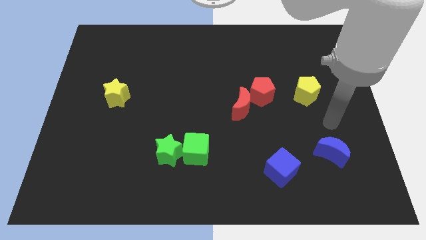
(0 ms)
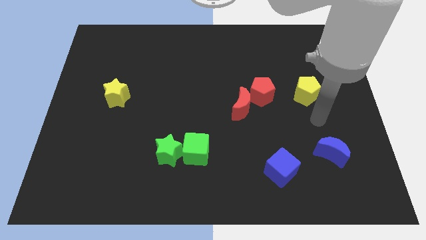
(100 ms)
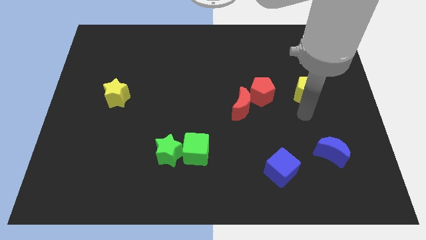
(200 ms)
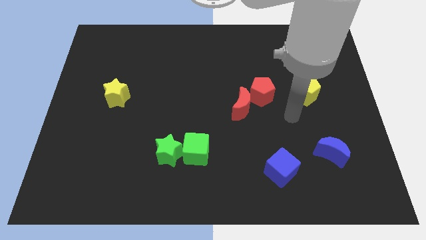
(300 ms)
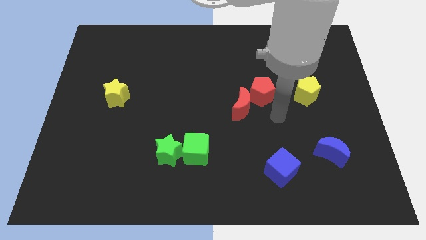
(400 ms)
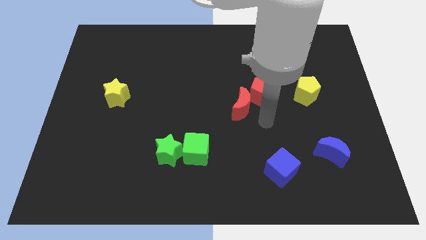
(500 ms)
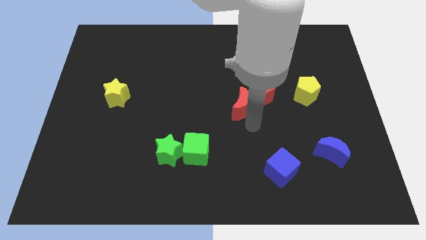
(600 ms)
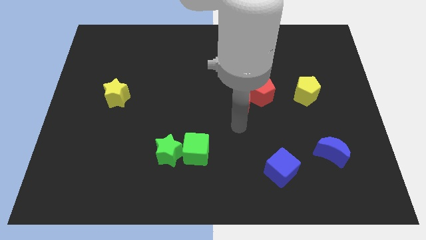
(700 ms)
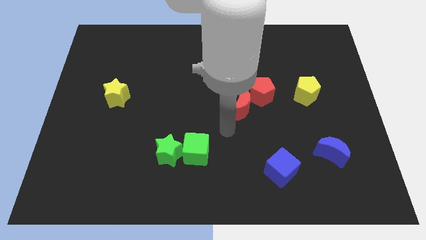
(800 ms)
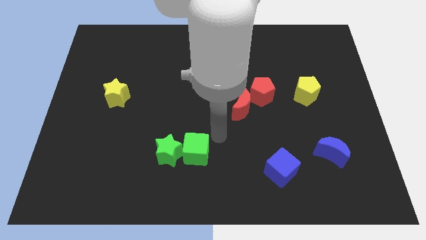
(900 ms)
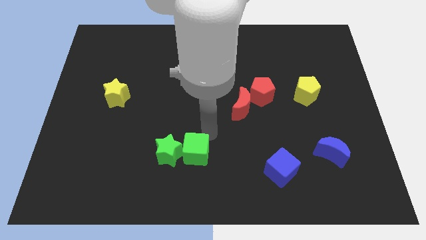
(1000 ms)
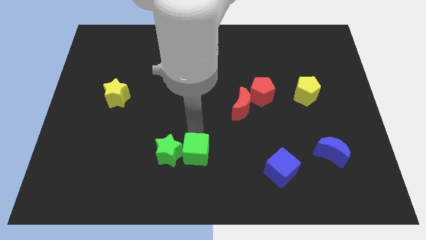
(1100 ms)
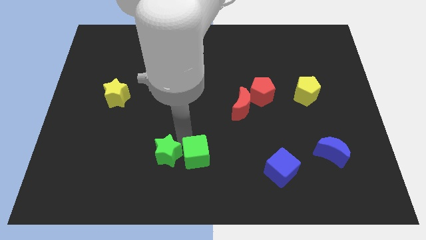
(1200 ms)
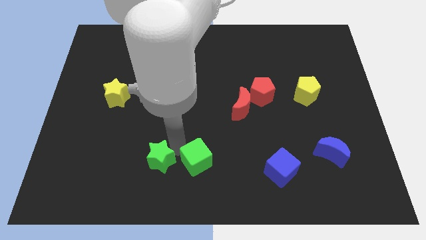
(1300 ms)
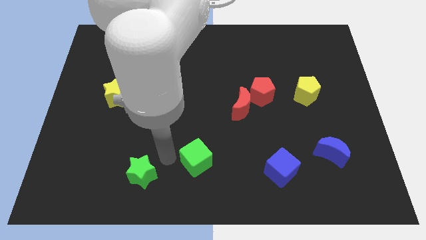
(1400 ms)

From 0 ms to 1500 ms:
pull the green cube apart from the green star

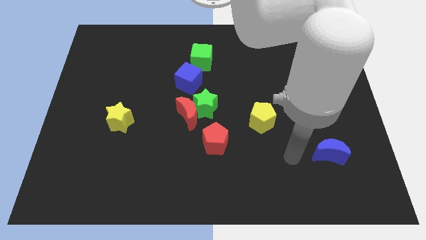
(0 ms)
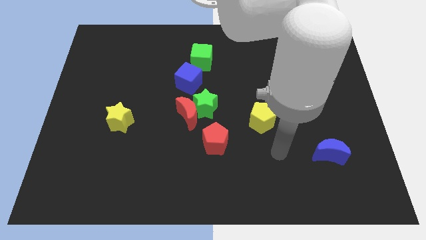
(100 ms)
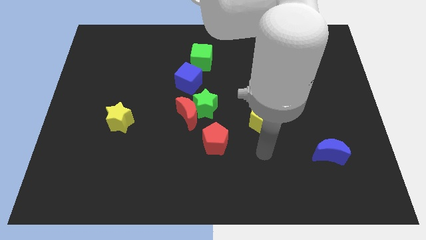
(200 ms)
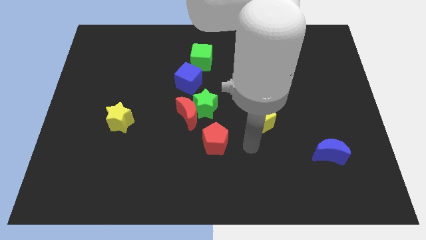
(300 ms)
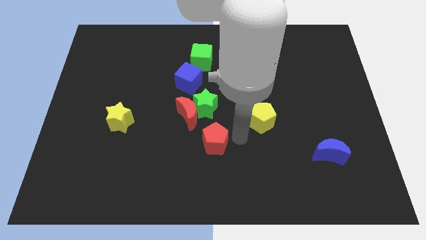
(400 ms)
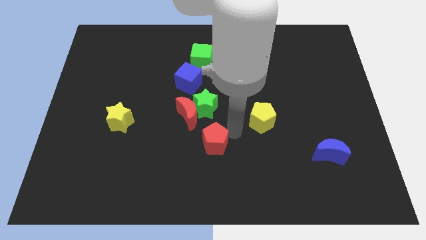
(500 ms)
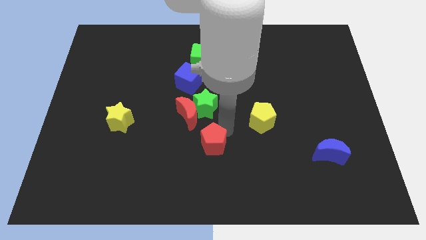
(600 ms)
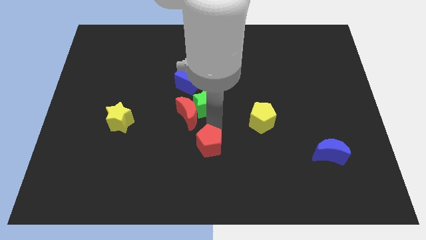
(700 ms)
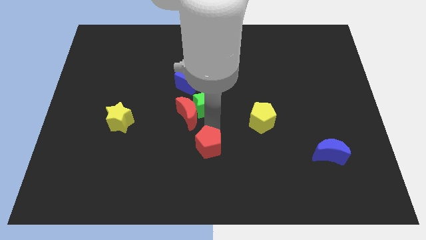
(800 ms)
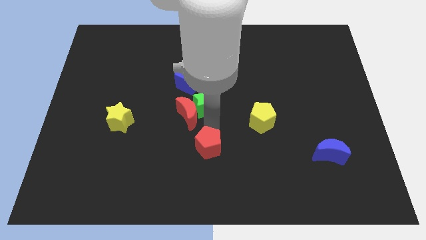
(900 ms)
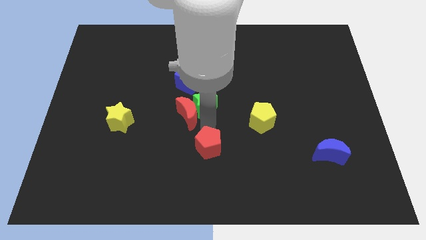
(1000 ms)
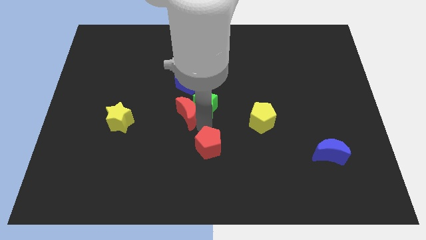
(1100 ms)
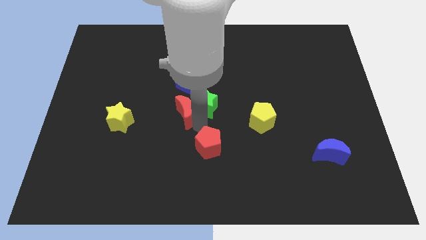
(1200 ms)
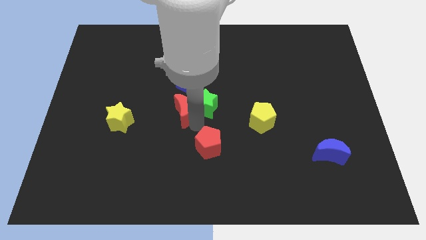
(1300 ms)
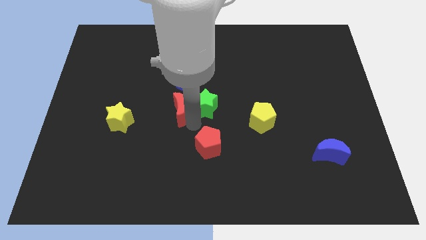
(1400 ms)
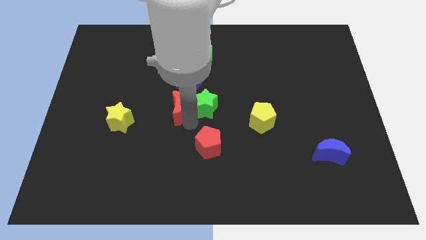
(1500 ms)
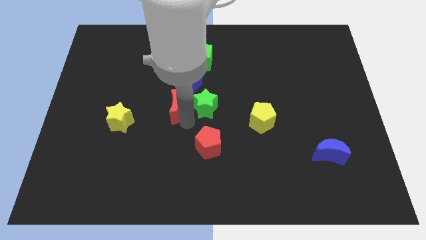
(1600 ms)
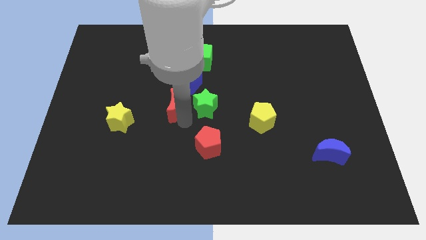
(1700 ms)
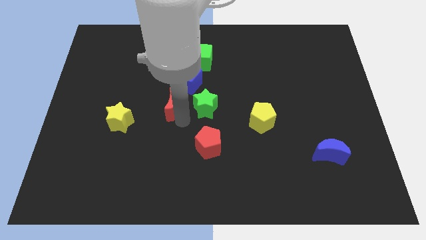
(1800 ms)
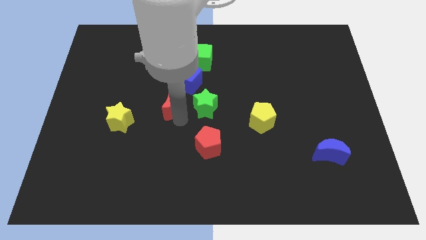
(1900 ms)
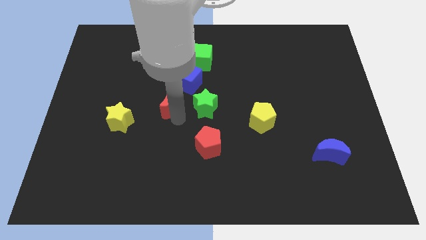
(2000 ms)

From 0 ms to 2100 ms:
separate the red moon from the green star and red pentagon

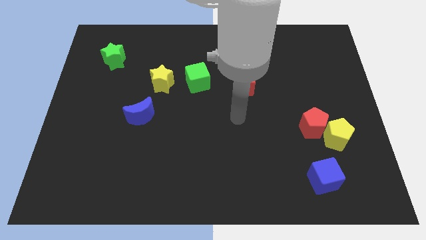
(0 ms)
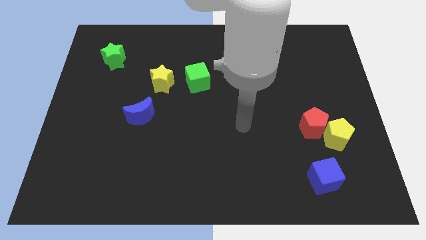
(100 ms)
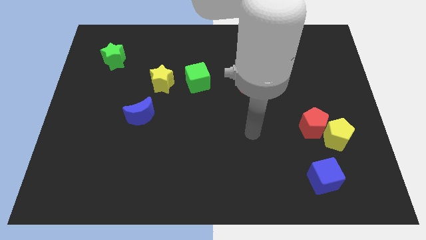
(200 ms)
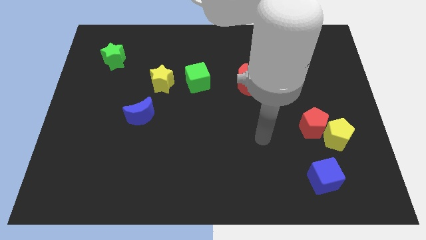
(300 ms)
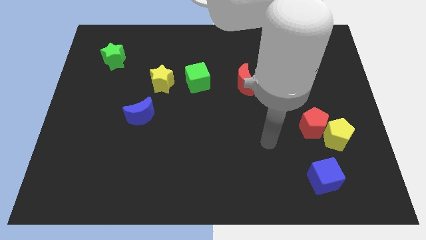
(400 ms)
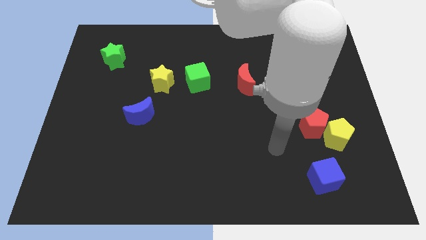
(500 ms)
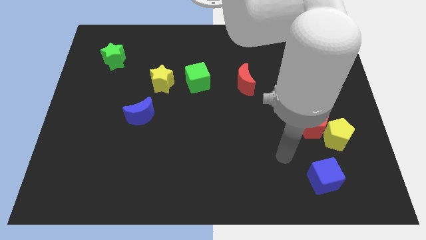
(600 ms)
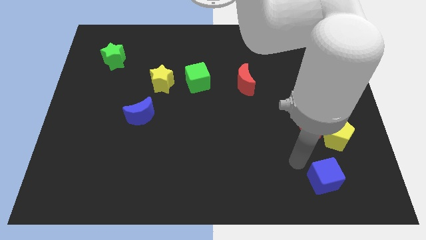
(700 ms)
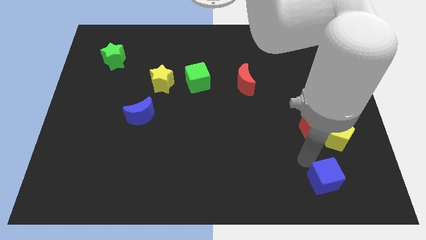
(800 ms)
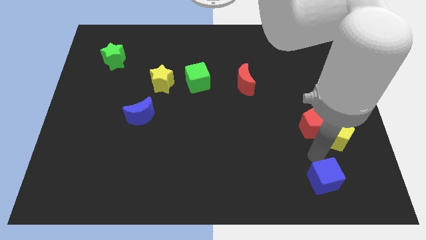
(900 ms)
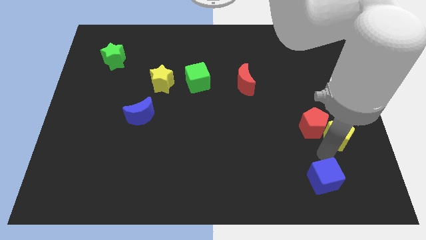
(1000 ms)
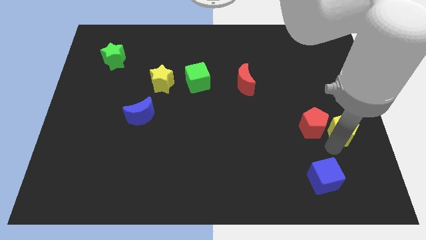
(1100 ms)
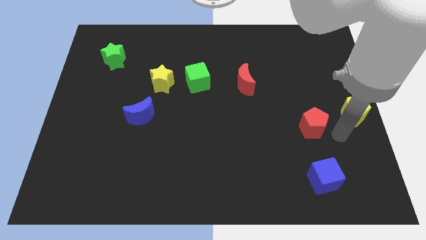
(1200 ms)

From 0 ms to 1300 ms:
pull the red pentagon apart from the yellow pentagon

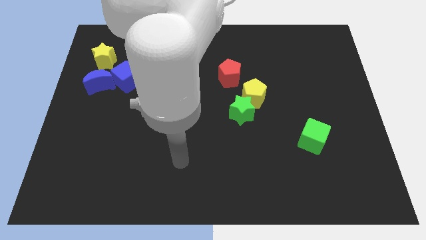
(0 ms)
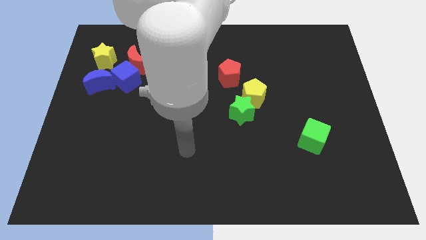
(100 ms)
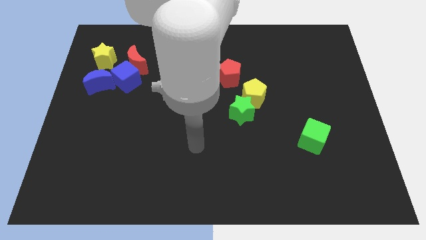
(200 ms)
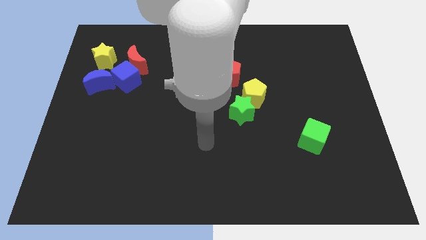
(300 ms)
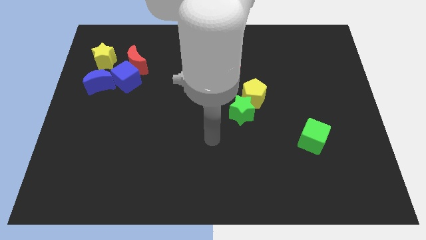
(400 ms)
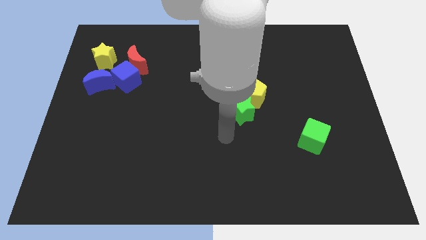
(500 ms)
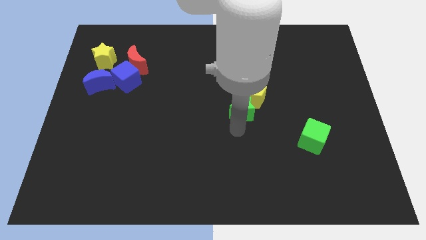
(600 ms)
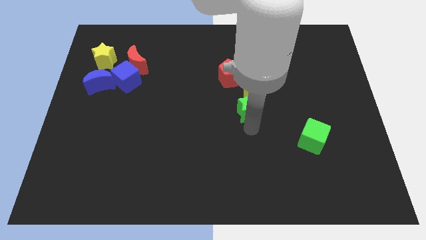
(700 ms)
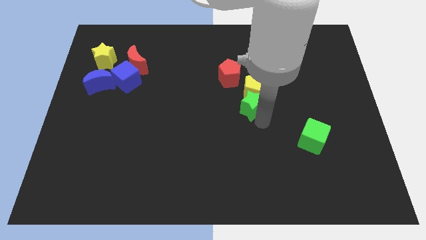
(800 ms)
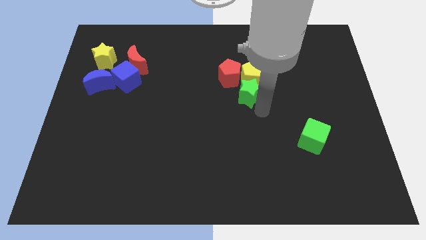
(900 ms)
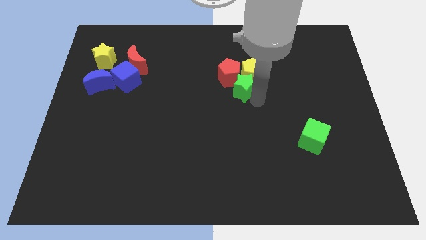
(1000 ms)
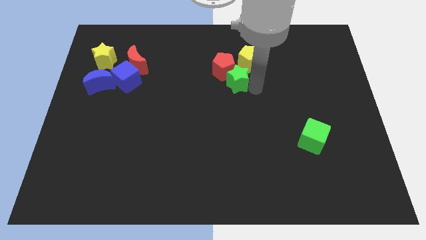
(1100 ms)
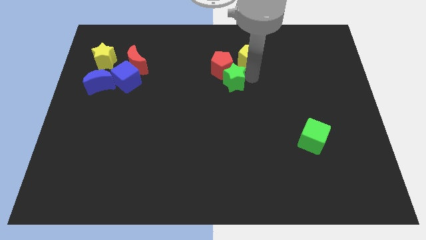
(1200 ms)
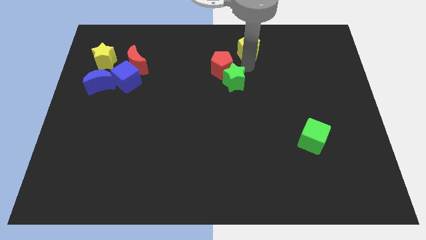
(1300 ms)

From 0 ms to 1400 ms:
move the green star away from the yellow pentagon

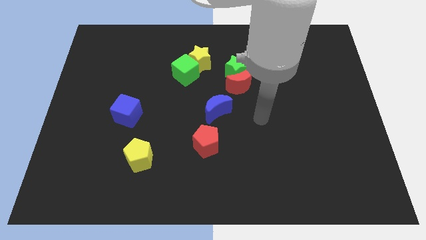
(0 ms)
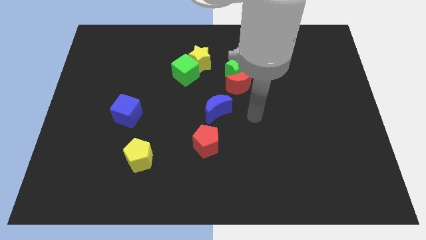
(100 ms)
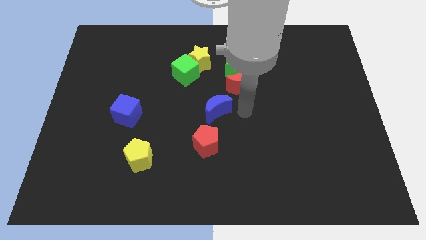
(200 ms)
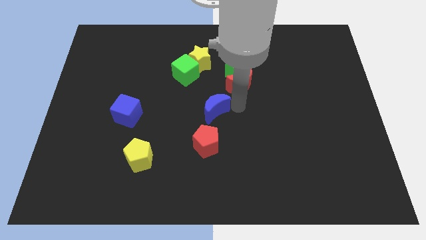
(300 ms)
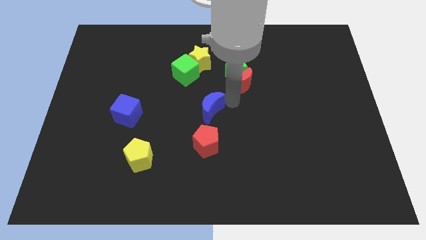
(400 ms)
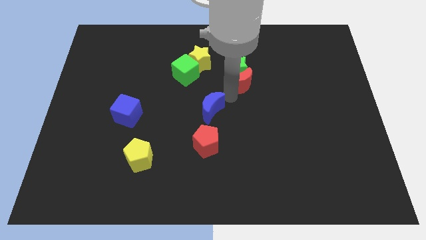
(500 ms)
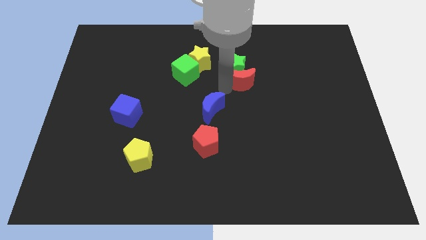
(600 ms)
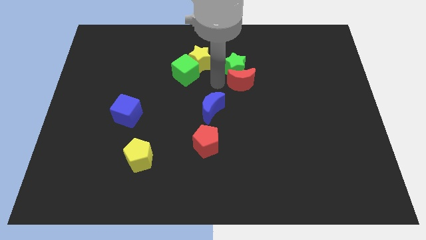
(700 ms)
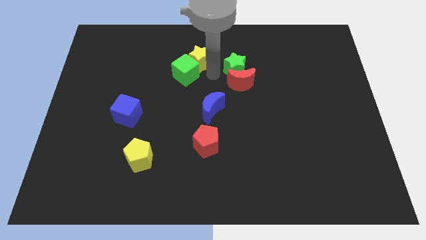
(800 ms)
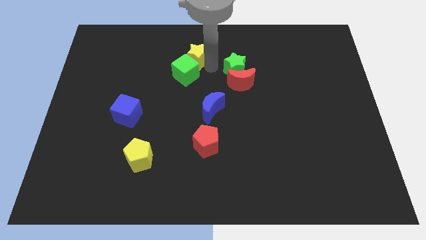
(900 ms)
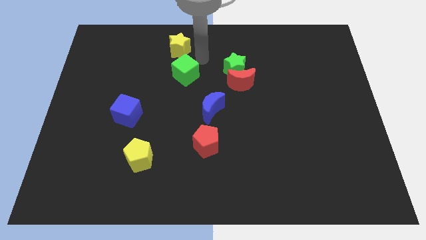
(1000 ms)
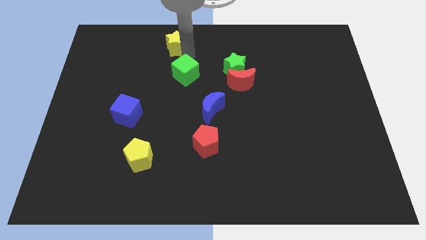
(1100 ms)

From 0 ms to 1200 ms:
separate the green cube from the yellow star

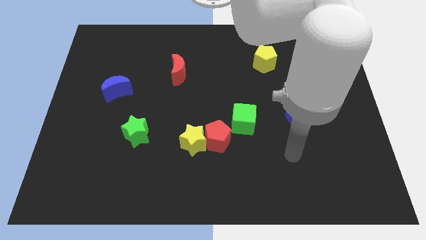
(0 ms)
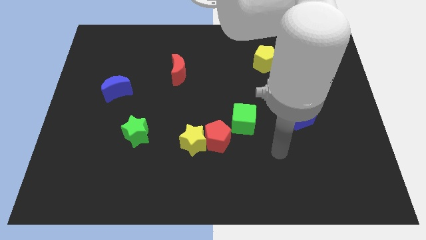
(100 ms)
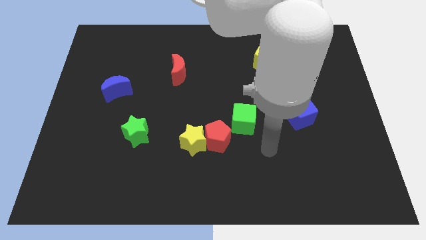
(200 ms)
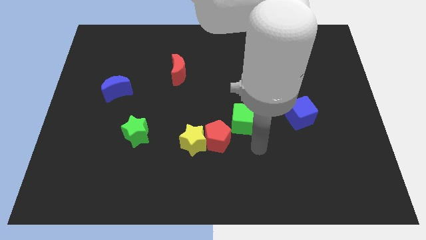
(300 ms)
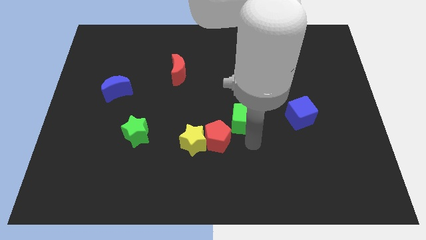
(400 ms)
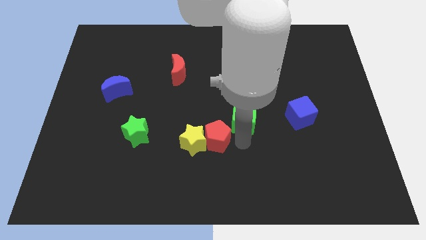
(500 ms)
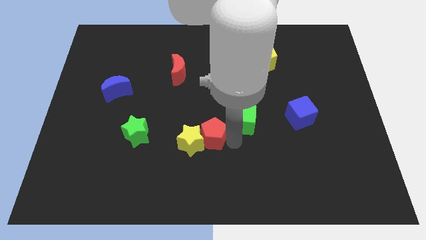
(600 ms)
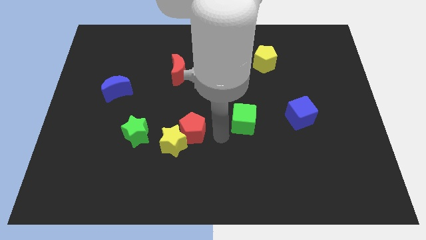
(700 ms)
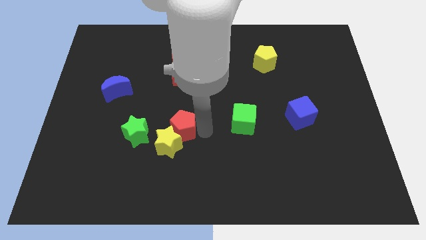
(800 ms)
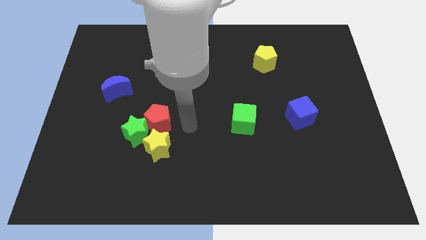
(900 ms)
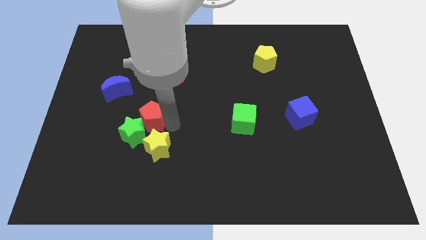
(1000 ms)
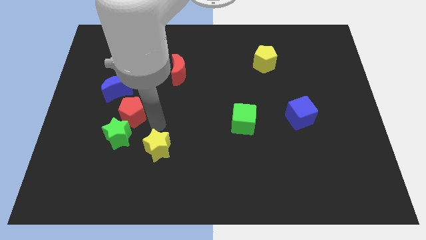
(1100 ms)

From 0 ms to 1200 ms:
move the yellow star away from the red pentagon

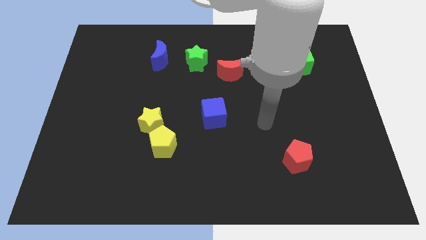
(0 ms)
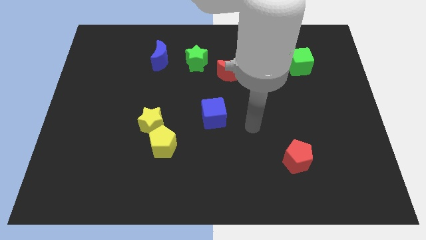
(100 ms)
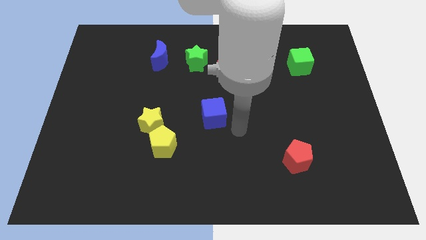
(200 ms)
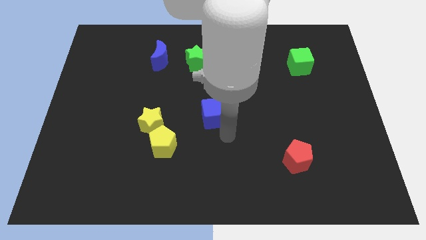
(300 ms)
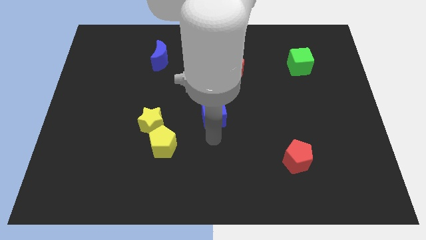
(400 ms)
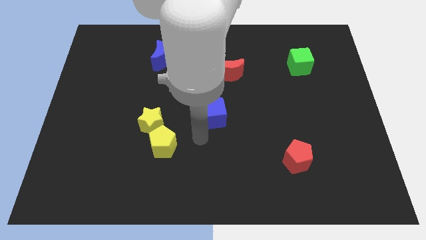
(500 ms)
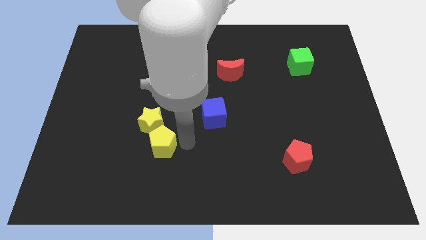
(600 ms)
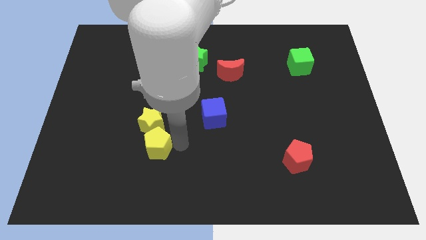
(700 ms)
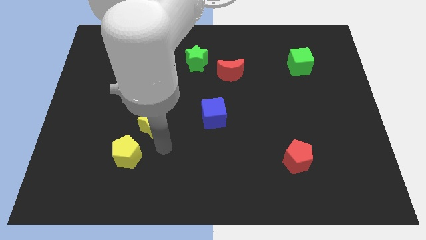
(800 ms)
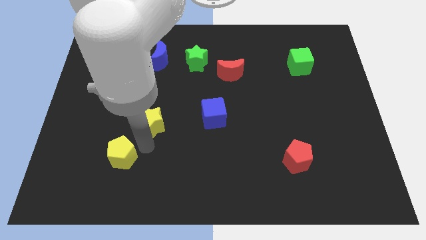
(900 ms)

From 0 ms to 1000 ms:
pull the yellow star apart from the yellow pentagon
